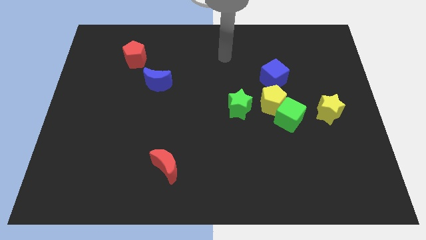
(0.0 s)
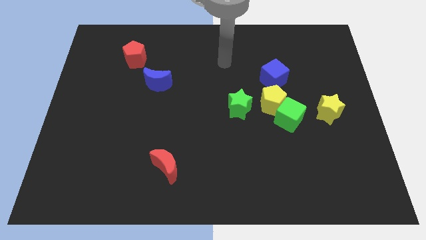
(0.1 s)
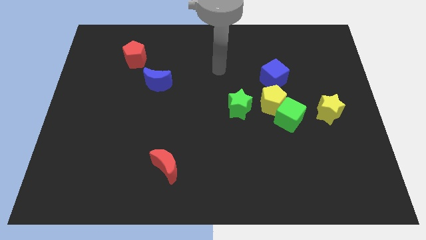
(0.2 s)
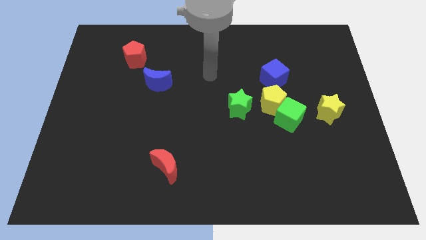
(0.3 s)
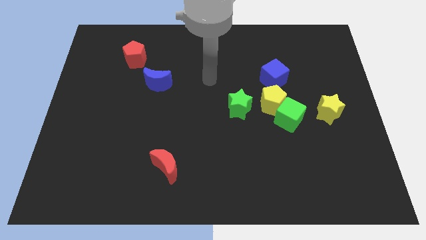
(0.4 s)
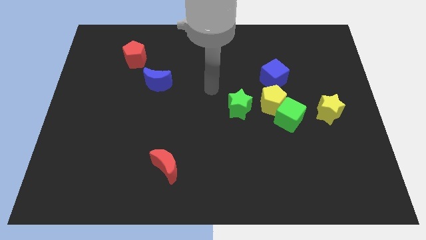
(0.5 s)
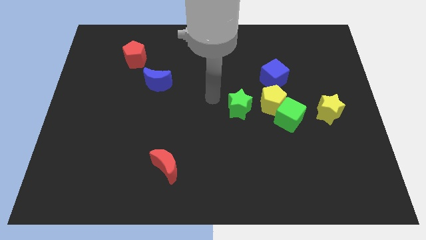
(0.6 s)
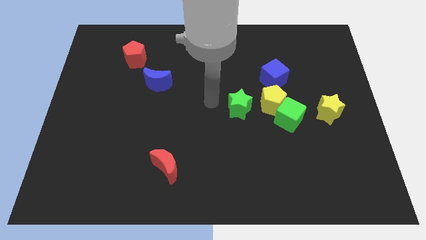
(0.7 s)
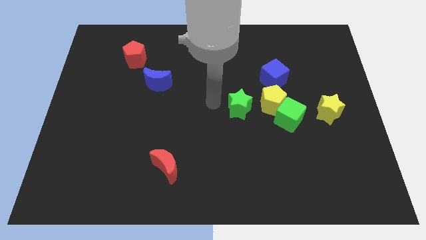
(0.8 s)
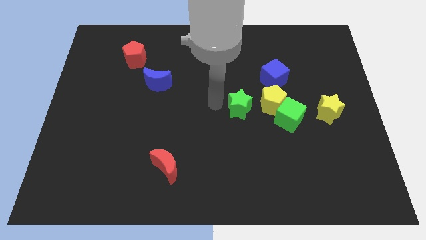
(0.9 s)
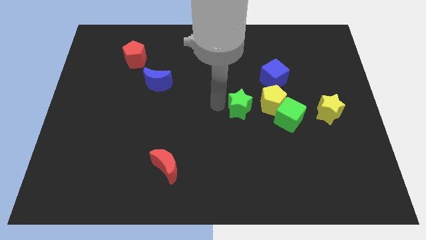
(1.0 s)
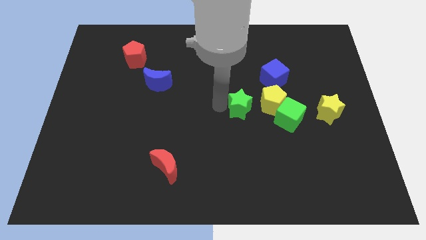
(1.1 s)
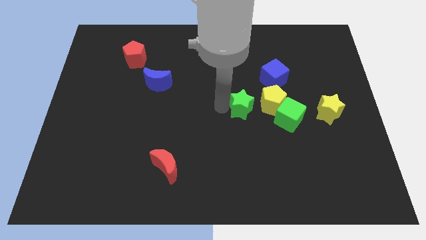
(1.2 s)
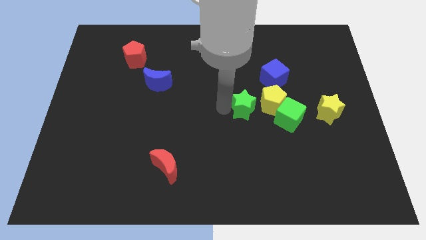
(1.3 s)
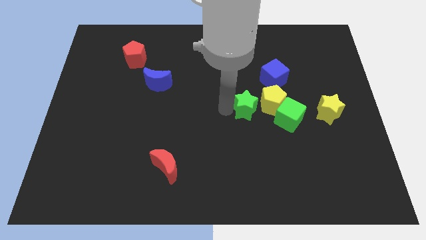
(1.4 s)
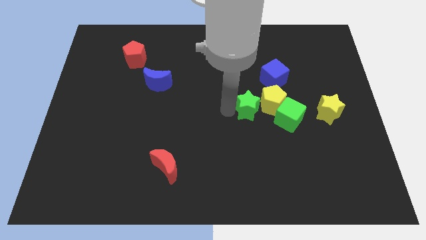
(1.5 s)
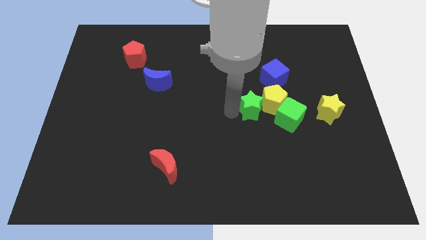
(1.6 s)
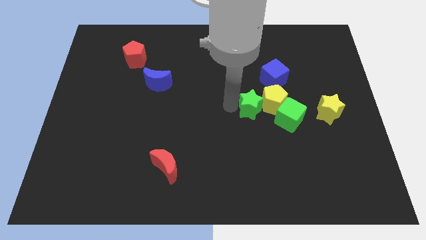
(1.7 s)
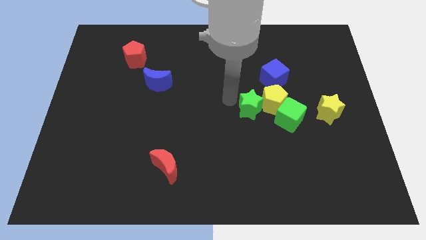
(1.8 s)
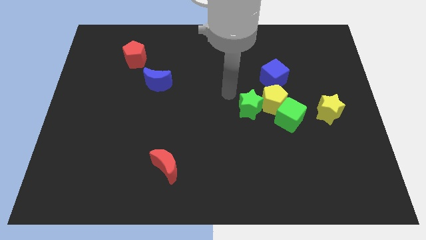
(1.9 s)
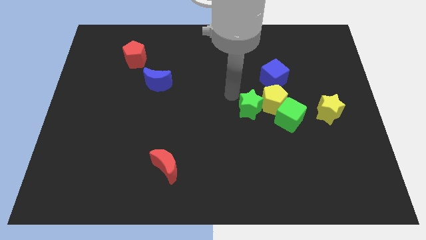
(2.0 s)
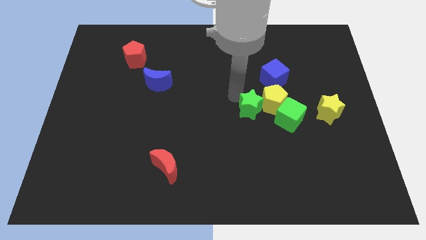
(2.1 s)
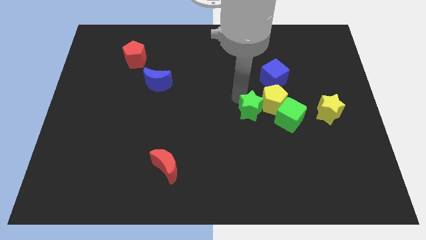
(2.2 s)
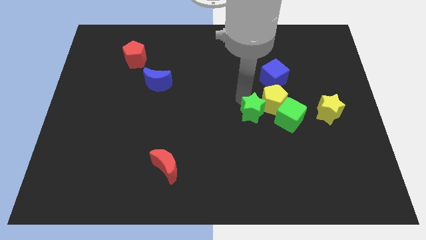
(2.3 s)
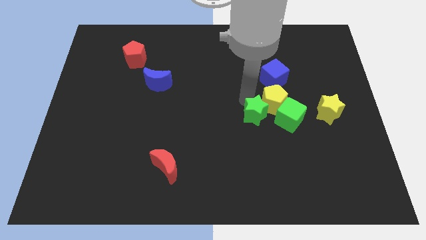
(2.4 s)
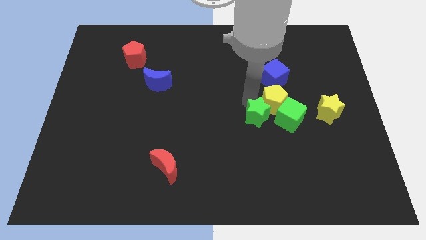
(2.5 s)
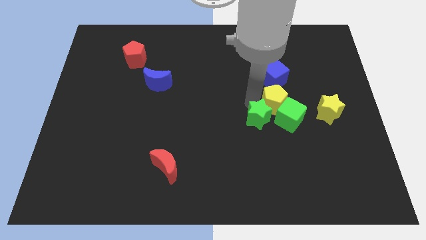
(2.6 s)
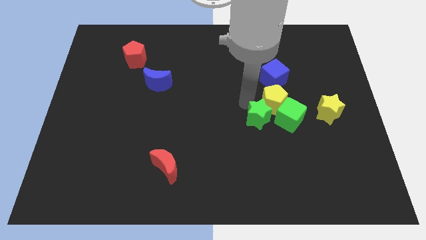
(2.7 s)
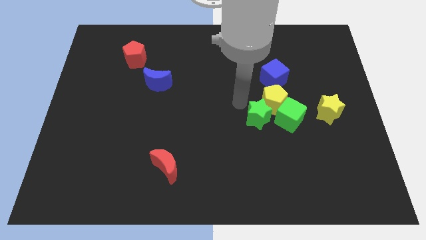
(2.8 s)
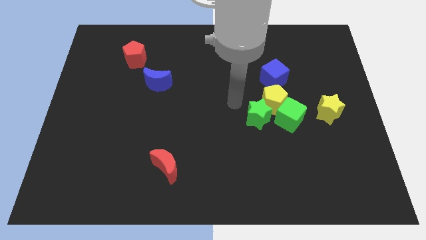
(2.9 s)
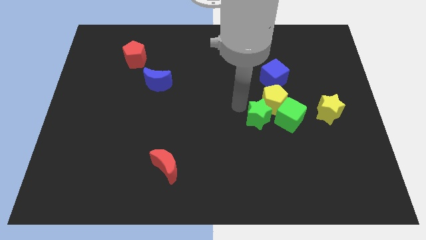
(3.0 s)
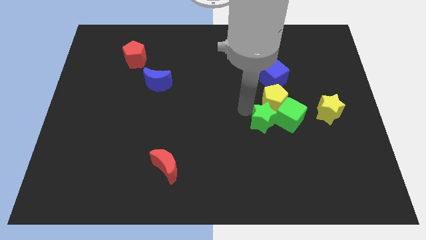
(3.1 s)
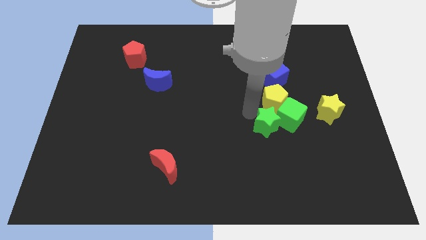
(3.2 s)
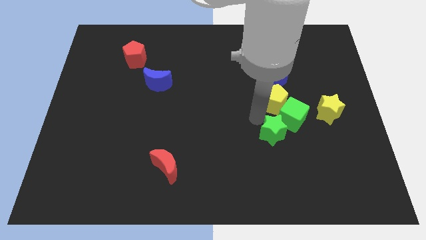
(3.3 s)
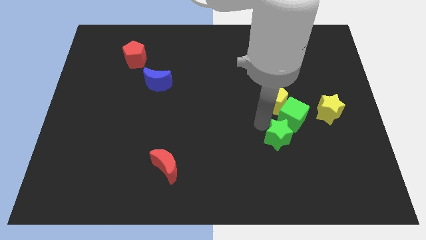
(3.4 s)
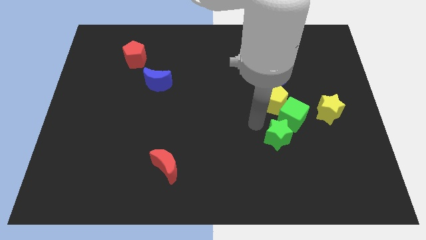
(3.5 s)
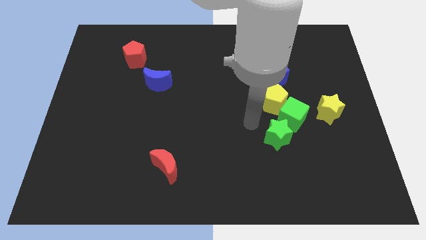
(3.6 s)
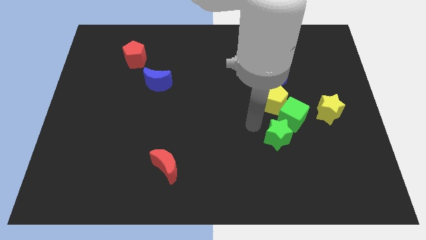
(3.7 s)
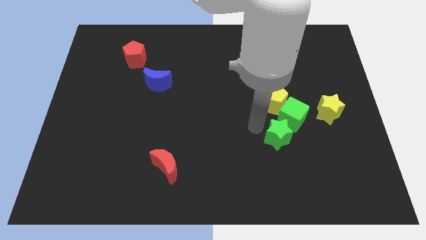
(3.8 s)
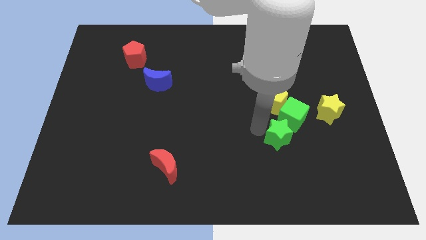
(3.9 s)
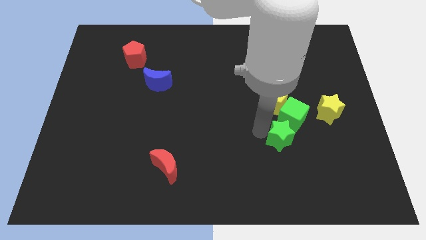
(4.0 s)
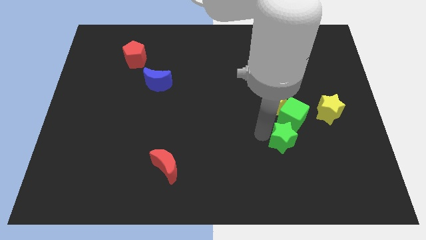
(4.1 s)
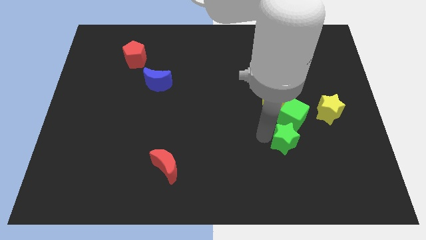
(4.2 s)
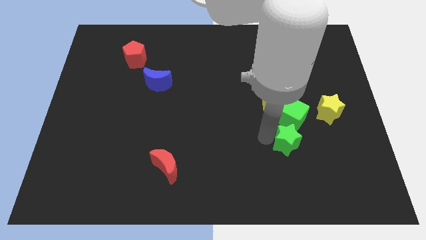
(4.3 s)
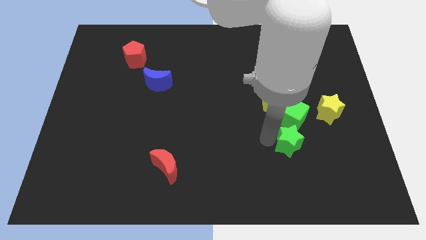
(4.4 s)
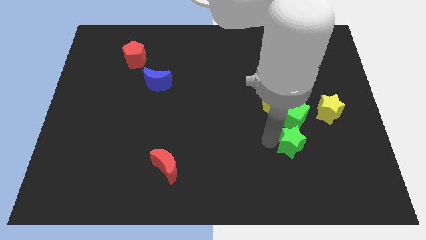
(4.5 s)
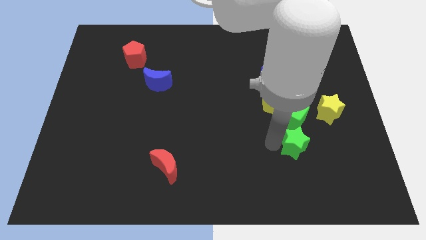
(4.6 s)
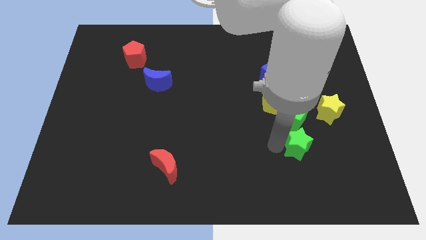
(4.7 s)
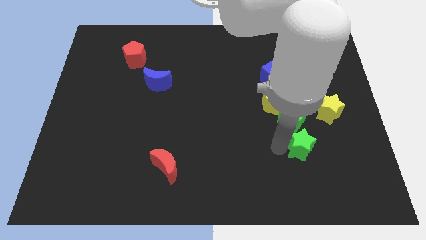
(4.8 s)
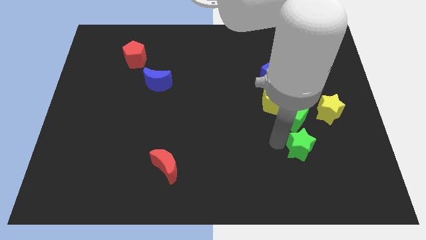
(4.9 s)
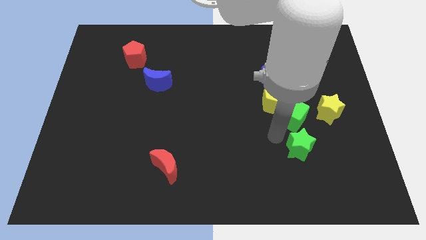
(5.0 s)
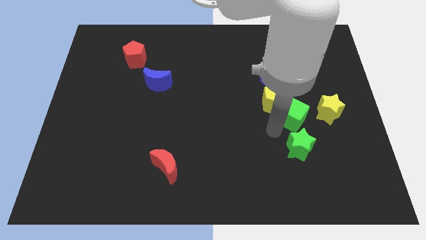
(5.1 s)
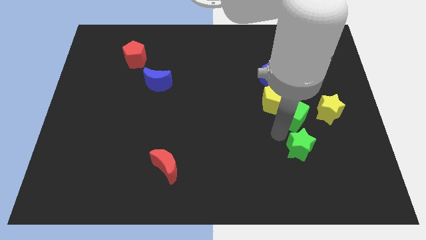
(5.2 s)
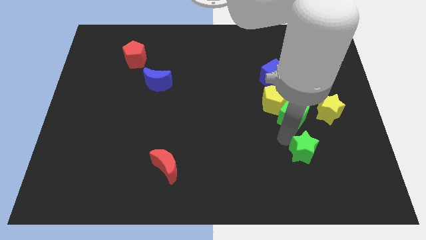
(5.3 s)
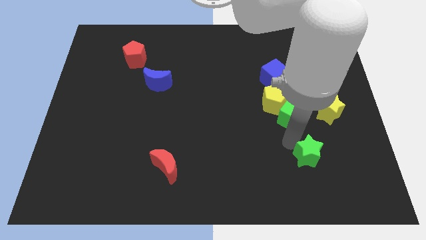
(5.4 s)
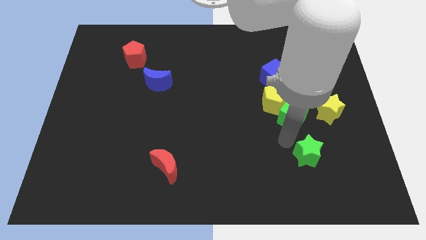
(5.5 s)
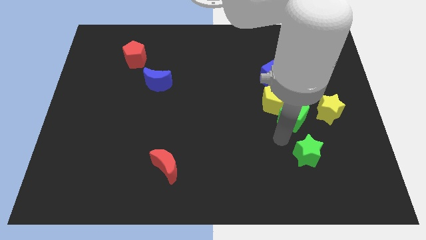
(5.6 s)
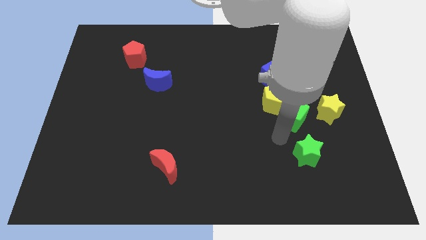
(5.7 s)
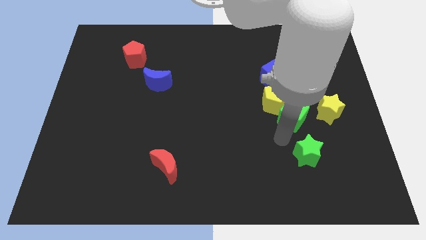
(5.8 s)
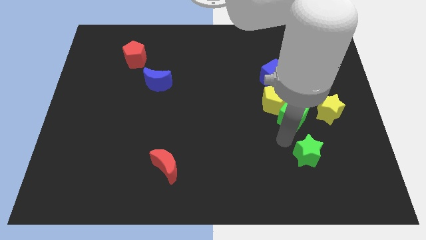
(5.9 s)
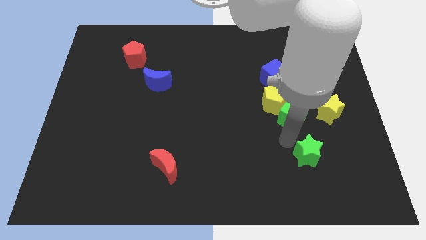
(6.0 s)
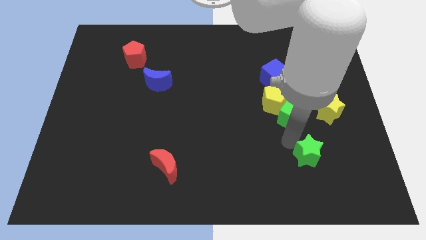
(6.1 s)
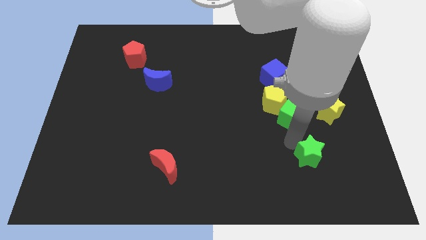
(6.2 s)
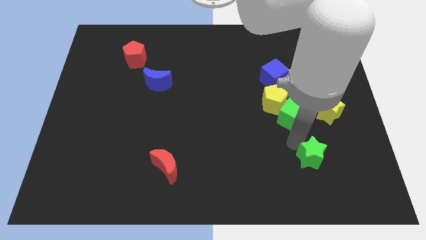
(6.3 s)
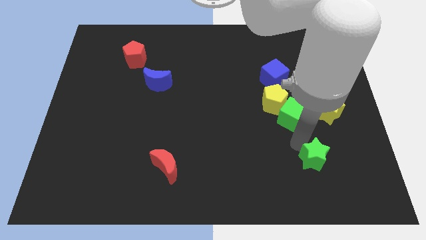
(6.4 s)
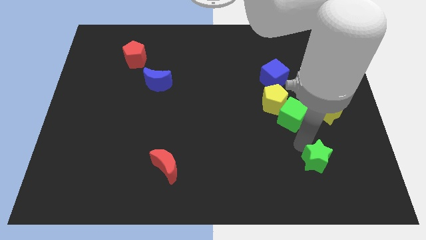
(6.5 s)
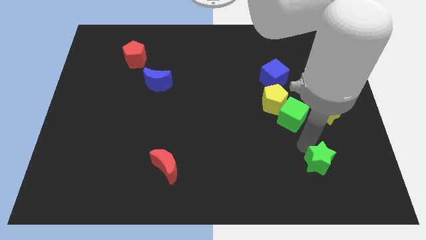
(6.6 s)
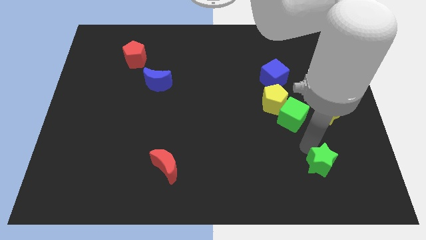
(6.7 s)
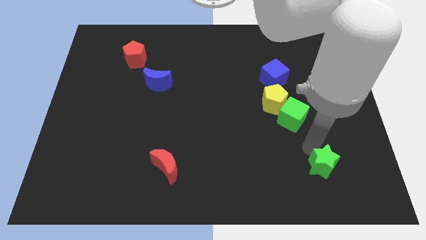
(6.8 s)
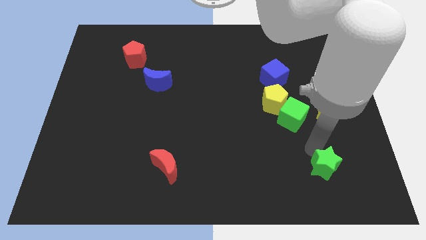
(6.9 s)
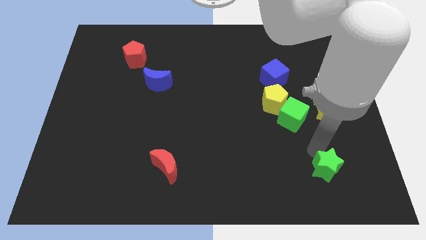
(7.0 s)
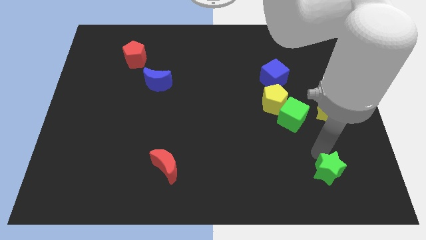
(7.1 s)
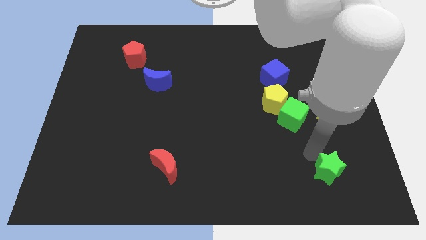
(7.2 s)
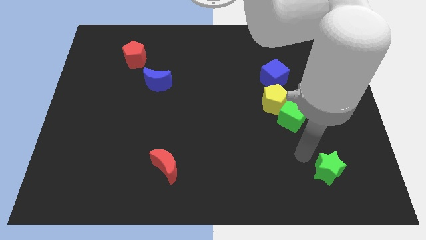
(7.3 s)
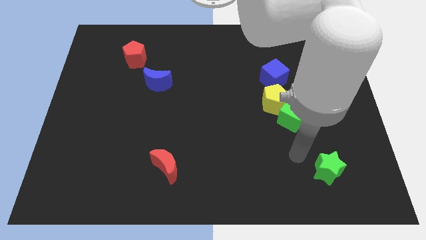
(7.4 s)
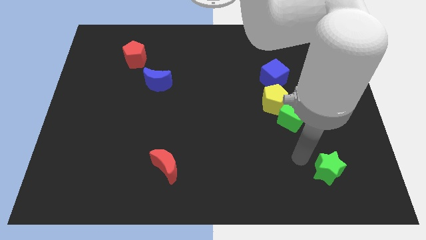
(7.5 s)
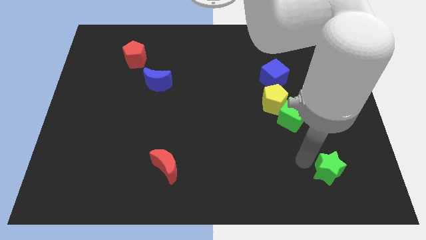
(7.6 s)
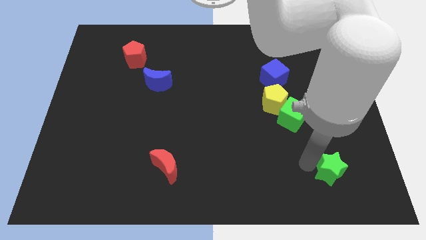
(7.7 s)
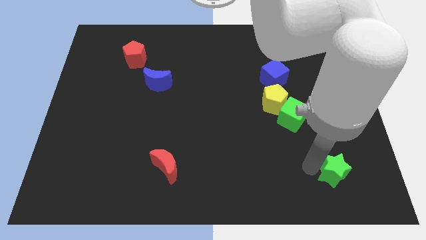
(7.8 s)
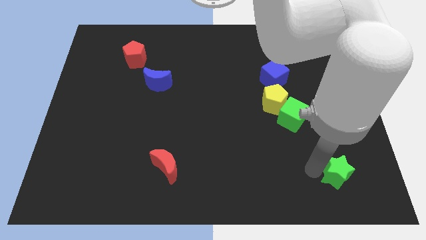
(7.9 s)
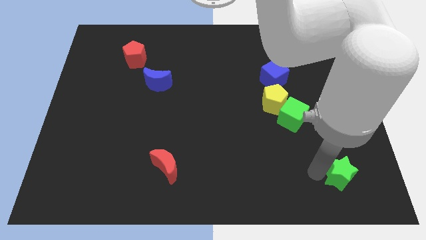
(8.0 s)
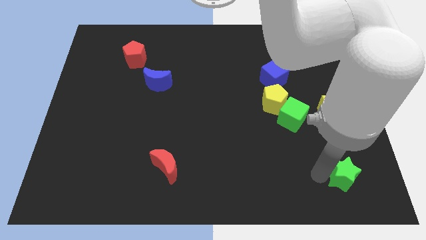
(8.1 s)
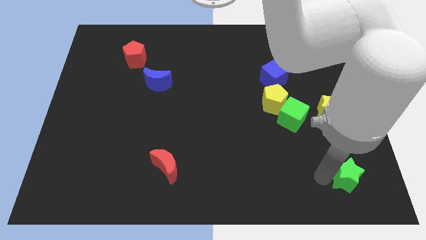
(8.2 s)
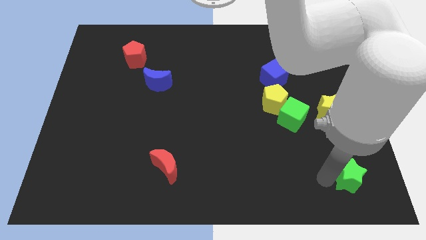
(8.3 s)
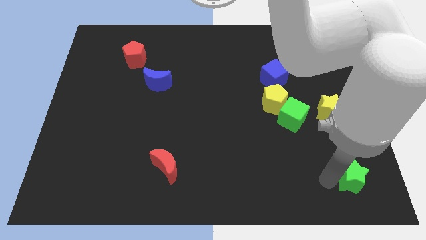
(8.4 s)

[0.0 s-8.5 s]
put the green star to the bottom right corner
